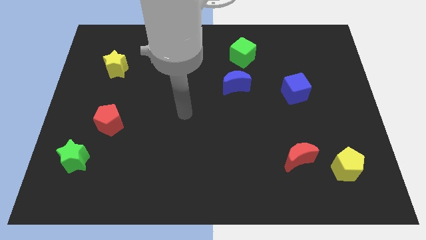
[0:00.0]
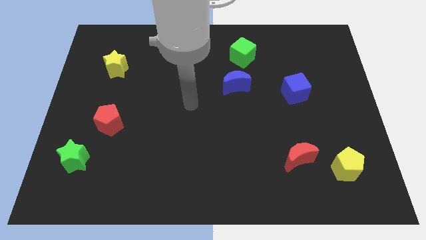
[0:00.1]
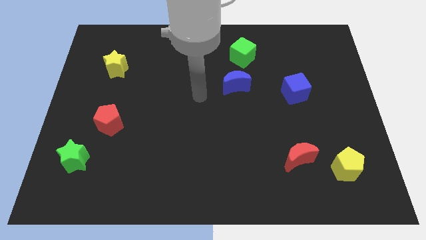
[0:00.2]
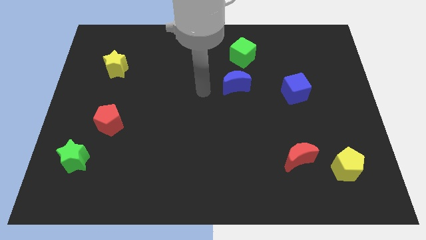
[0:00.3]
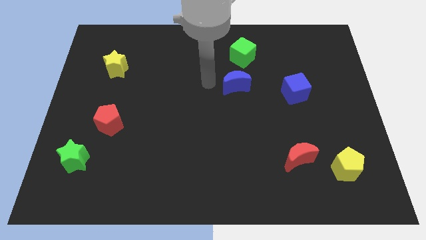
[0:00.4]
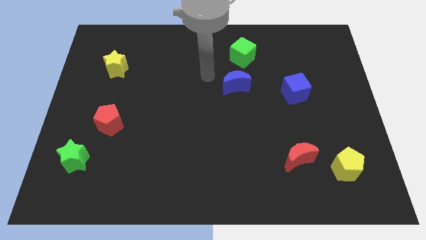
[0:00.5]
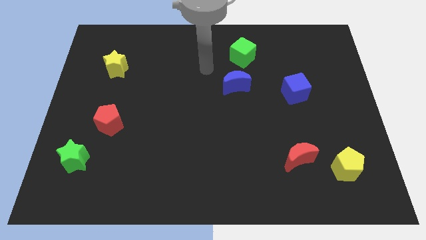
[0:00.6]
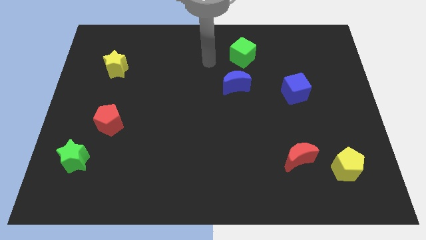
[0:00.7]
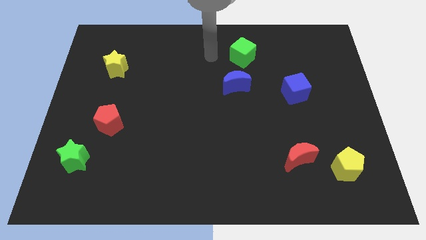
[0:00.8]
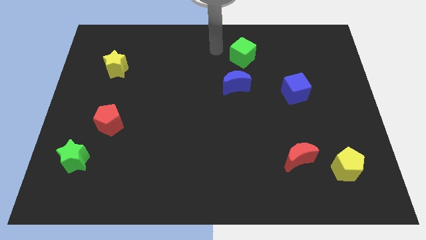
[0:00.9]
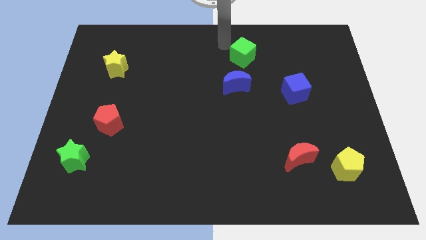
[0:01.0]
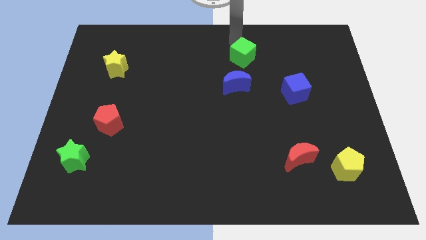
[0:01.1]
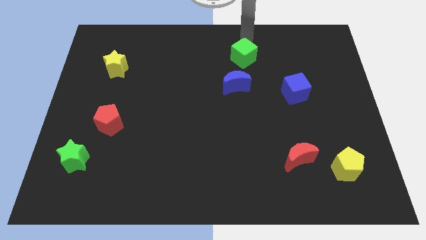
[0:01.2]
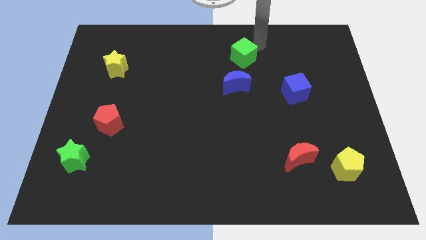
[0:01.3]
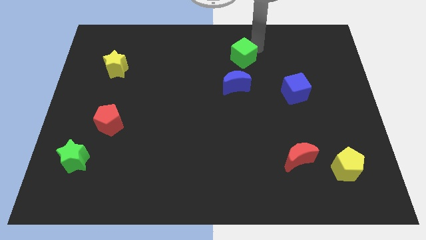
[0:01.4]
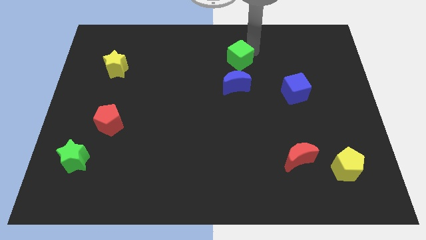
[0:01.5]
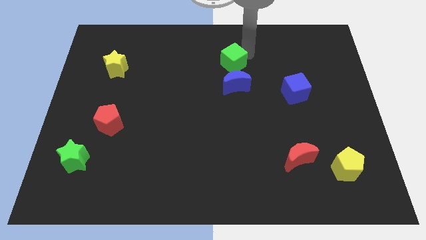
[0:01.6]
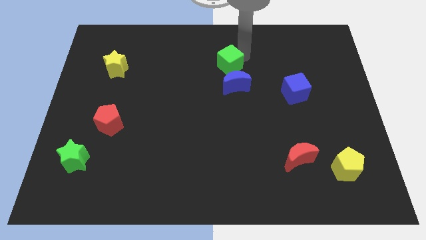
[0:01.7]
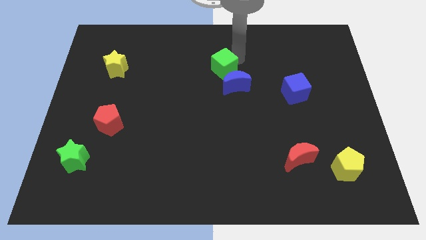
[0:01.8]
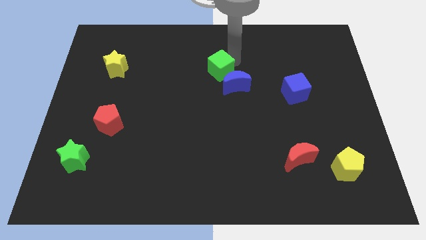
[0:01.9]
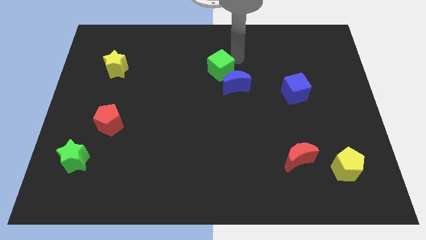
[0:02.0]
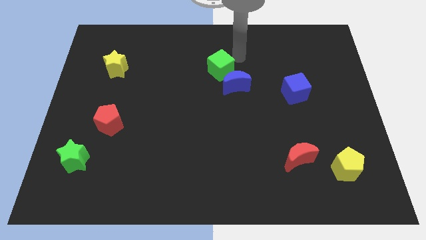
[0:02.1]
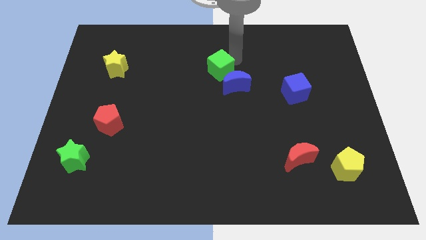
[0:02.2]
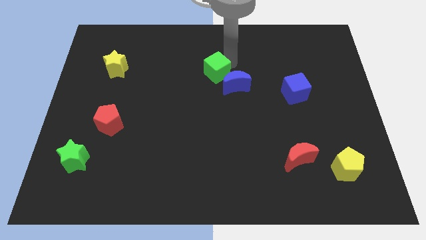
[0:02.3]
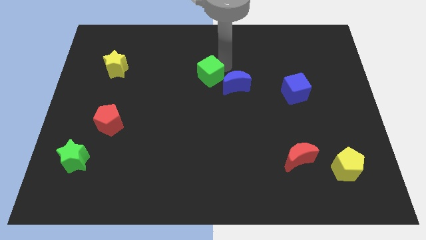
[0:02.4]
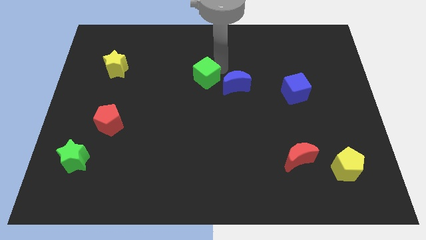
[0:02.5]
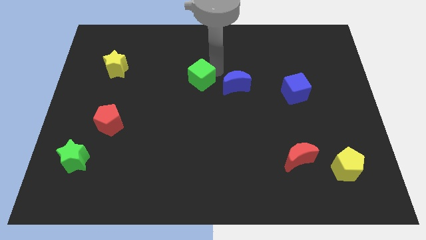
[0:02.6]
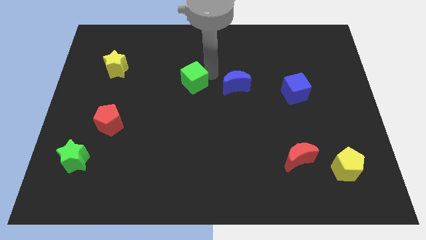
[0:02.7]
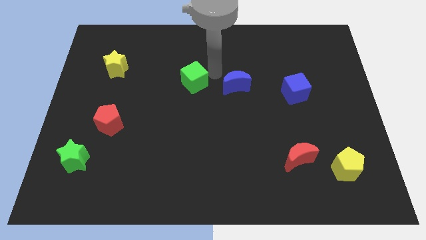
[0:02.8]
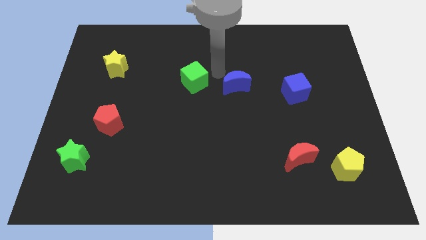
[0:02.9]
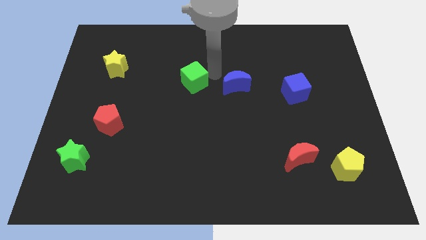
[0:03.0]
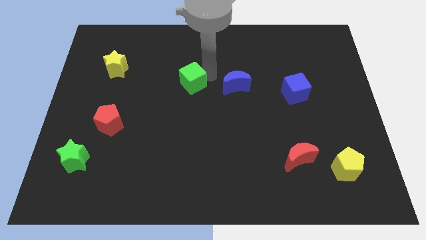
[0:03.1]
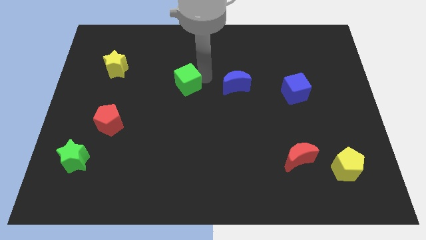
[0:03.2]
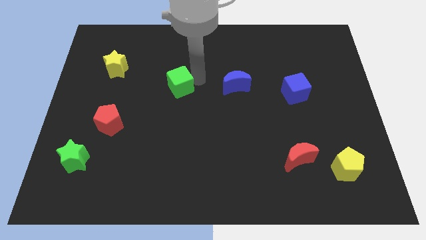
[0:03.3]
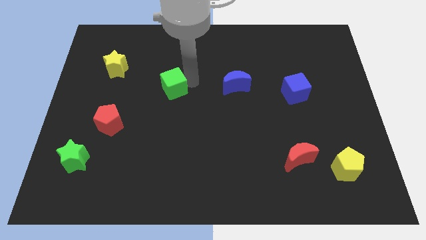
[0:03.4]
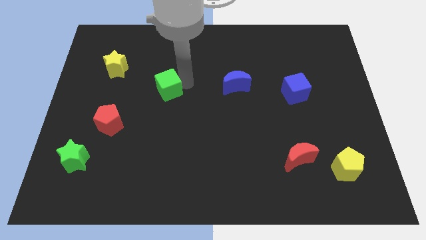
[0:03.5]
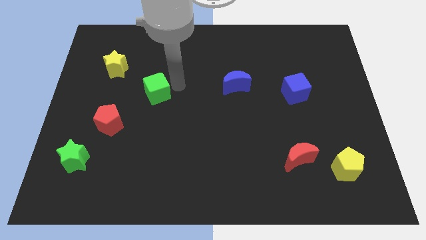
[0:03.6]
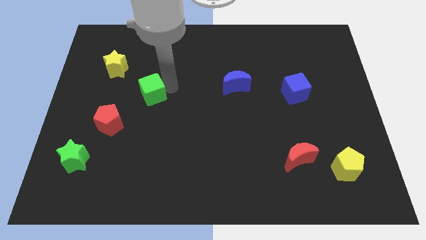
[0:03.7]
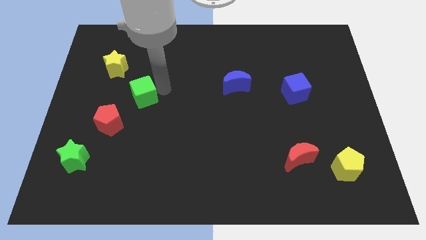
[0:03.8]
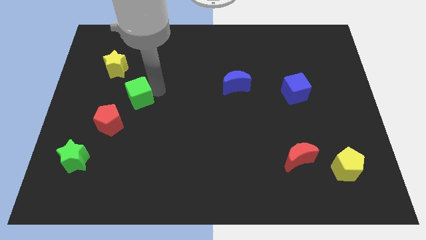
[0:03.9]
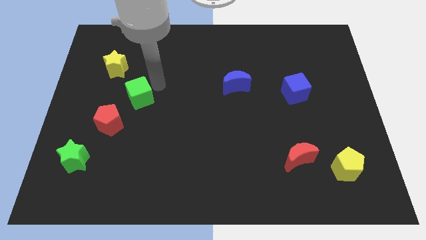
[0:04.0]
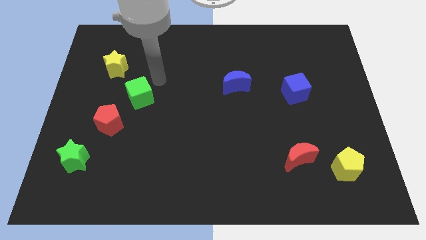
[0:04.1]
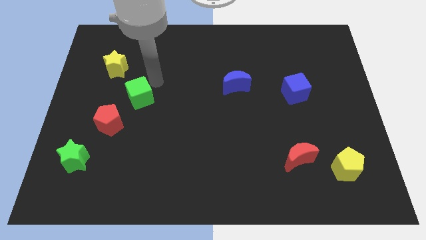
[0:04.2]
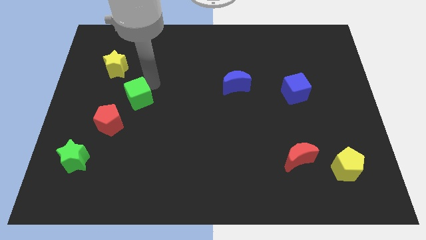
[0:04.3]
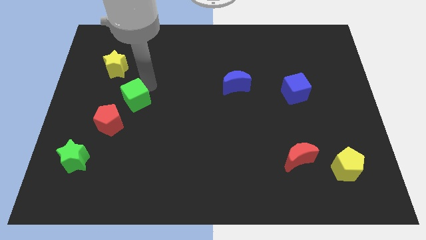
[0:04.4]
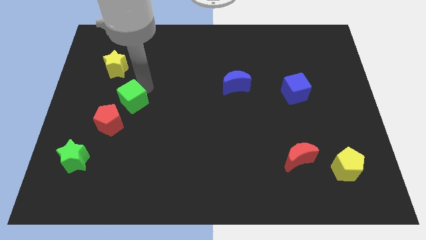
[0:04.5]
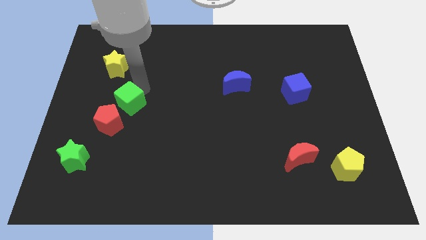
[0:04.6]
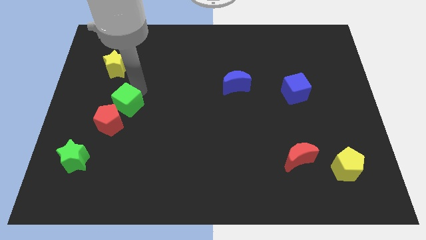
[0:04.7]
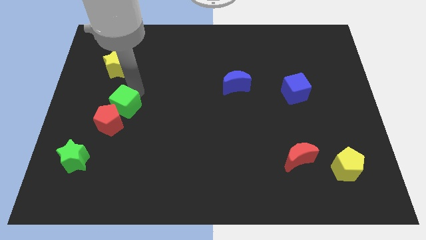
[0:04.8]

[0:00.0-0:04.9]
put the green cube close to the red pentagon

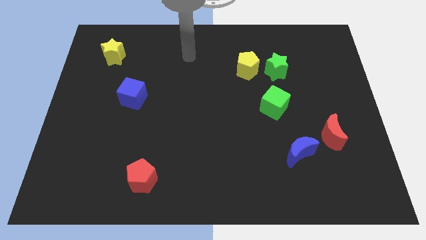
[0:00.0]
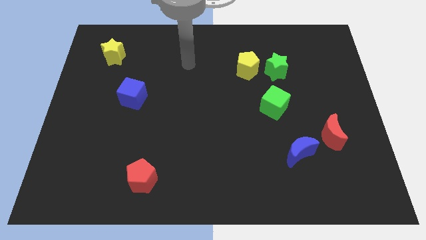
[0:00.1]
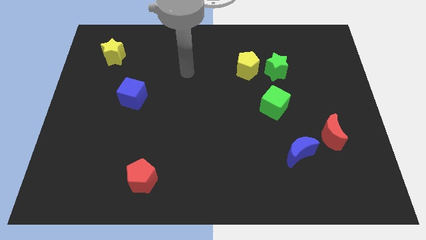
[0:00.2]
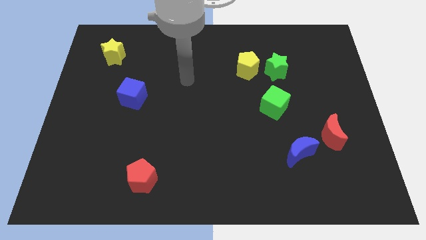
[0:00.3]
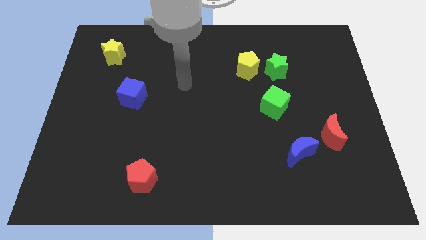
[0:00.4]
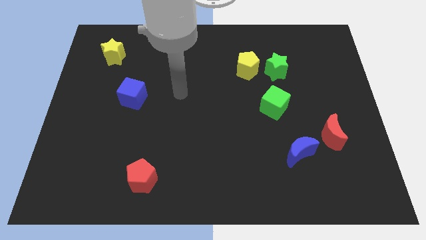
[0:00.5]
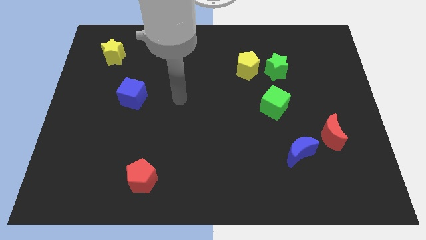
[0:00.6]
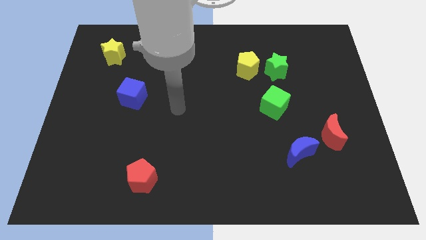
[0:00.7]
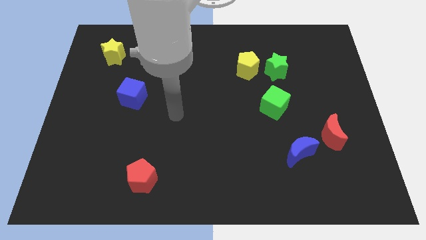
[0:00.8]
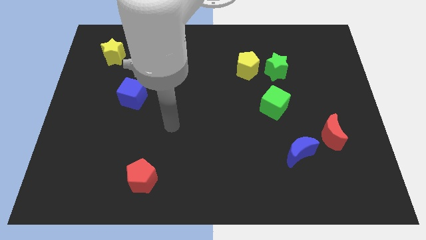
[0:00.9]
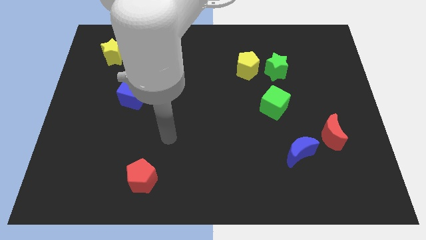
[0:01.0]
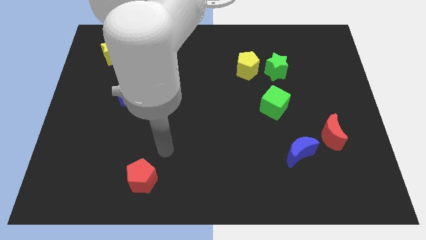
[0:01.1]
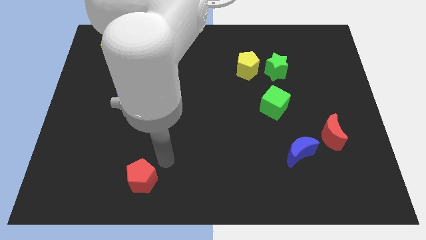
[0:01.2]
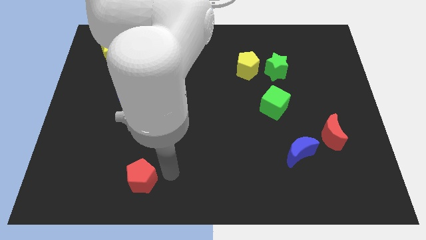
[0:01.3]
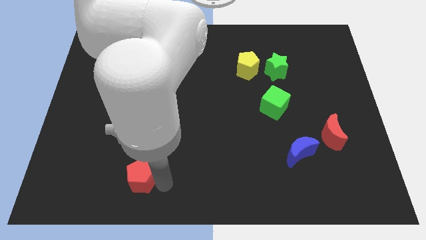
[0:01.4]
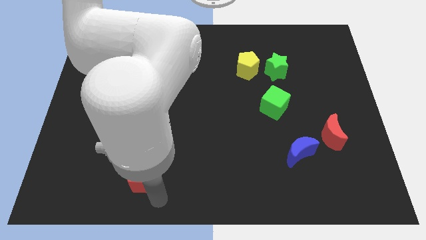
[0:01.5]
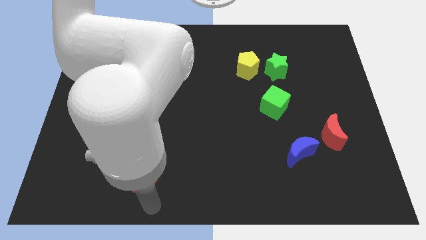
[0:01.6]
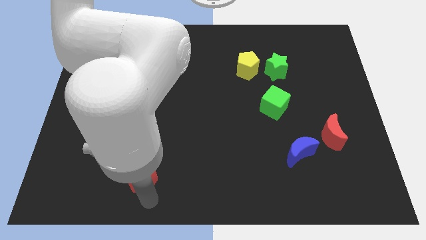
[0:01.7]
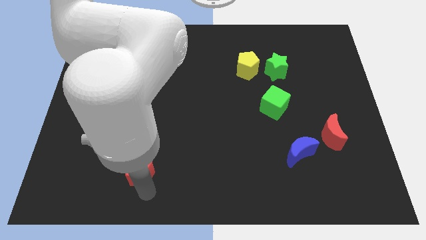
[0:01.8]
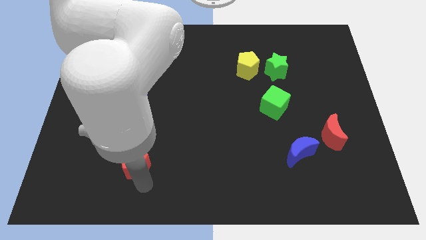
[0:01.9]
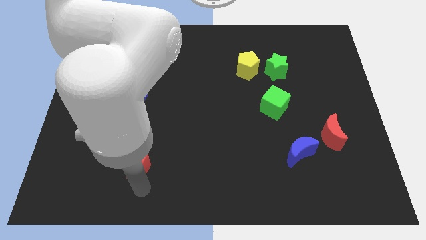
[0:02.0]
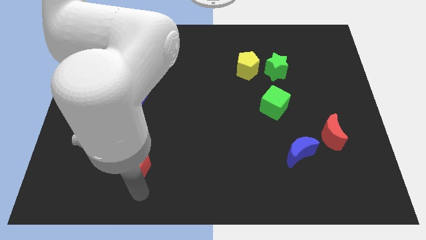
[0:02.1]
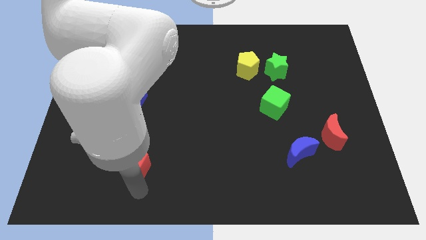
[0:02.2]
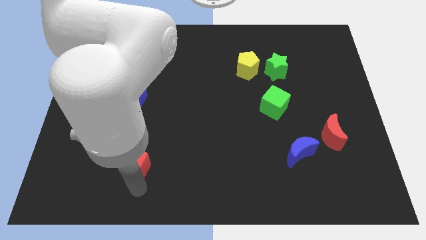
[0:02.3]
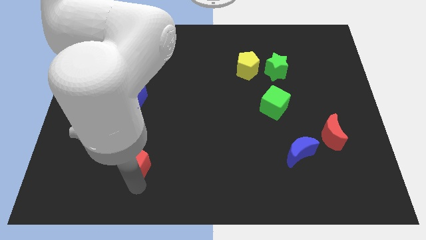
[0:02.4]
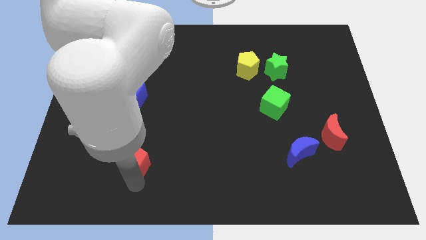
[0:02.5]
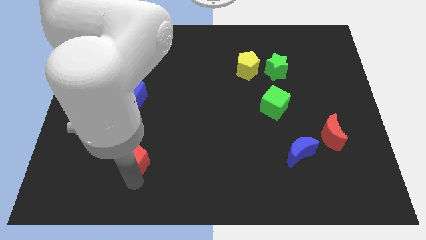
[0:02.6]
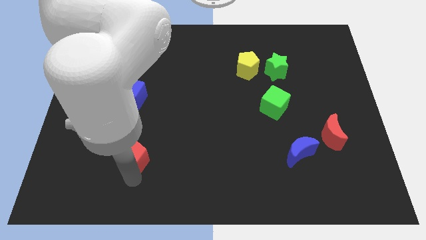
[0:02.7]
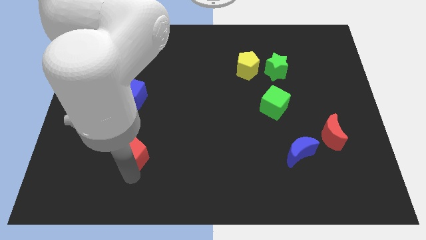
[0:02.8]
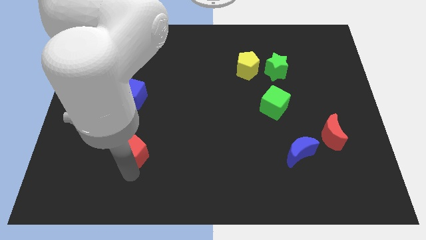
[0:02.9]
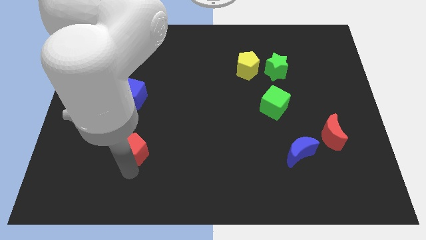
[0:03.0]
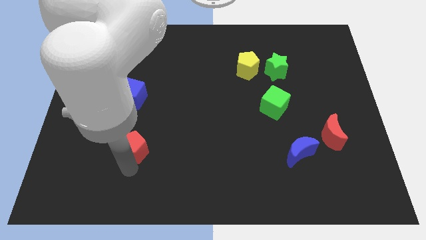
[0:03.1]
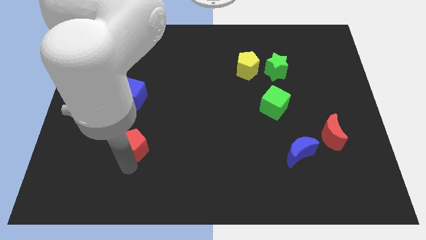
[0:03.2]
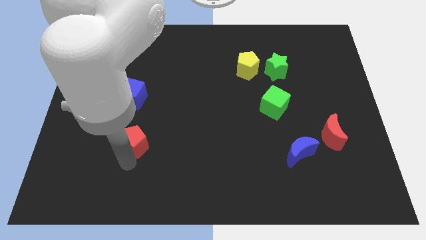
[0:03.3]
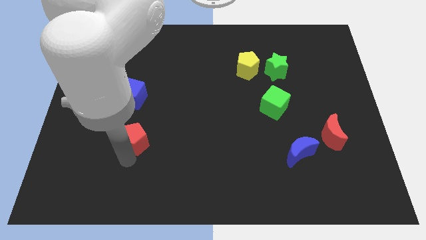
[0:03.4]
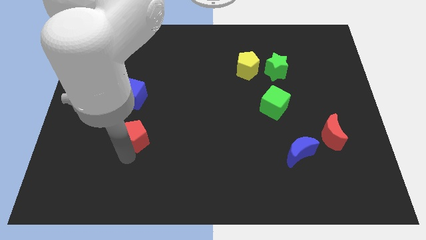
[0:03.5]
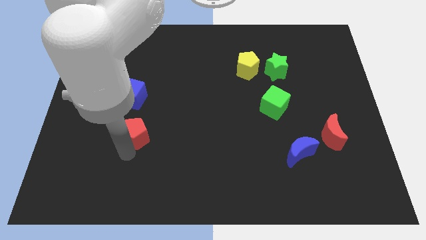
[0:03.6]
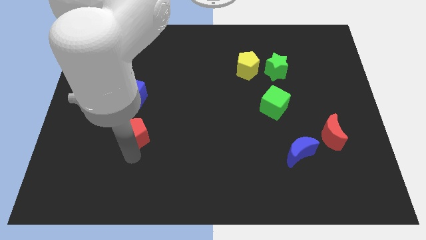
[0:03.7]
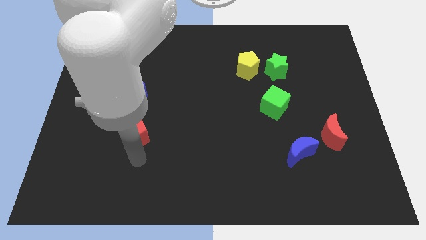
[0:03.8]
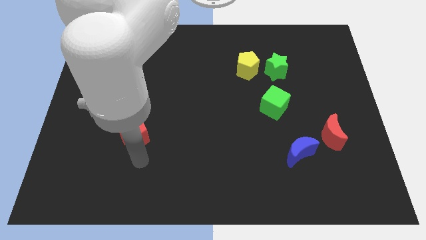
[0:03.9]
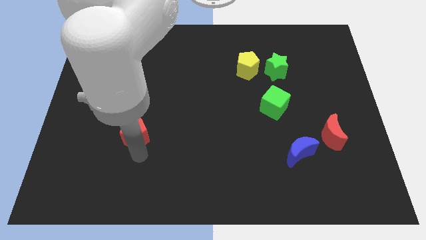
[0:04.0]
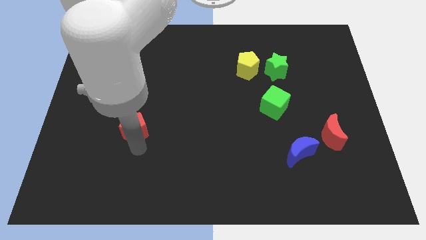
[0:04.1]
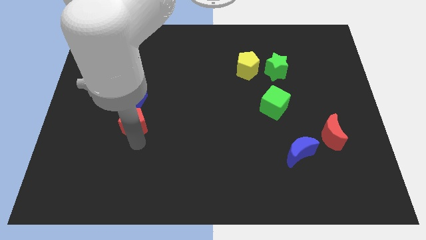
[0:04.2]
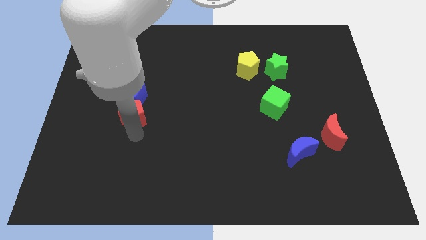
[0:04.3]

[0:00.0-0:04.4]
put the red pentagon close to the blue cube
